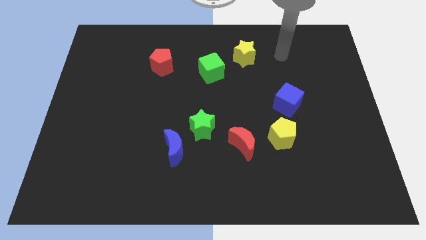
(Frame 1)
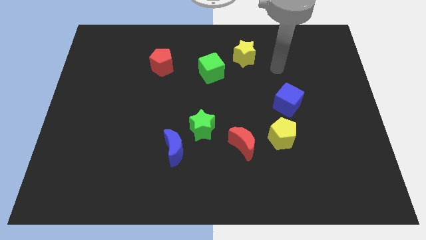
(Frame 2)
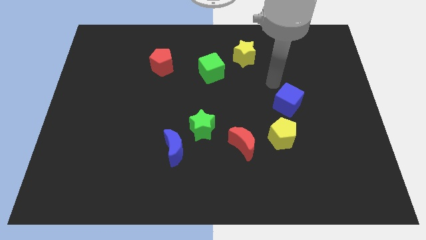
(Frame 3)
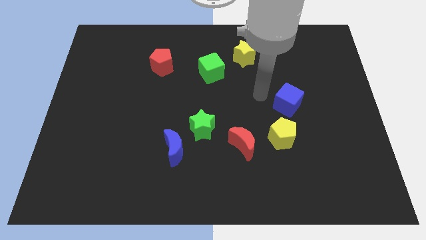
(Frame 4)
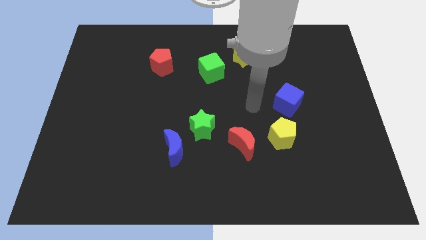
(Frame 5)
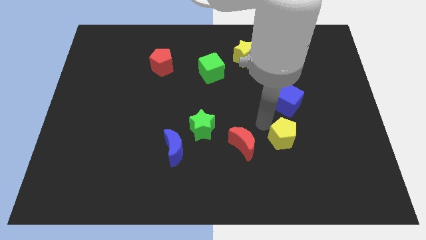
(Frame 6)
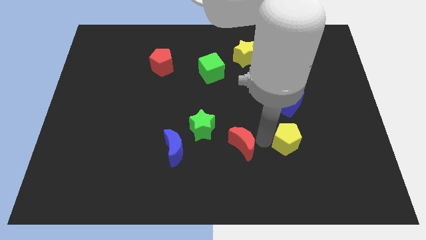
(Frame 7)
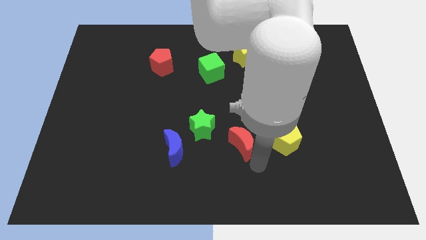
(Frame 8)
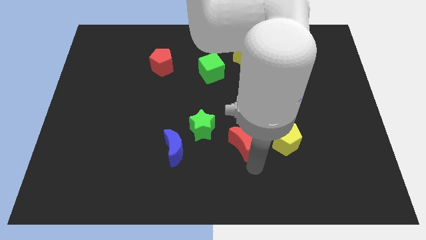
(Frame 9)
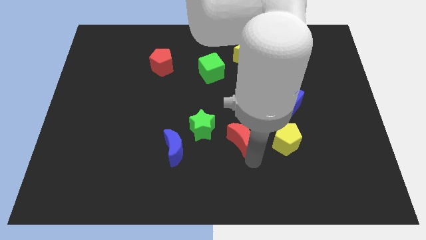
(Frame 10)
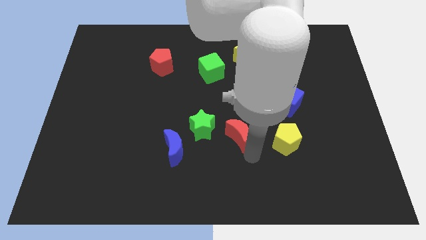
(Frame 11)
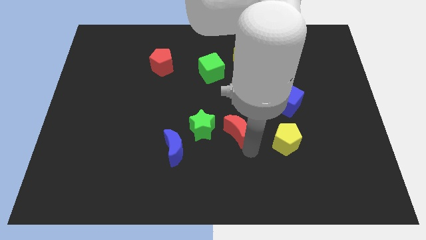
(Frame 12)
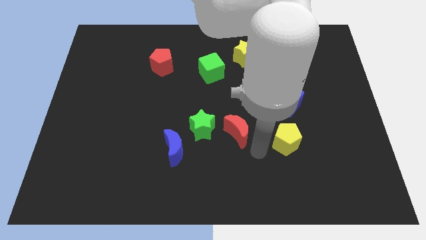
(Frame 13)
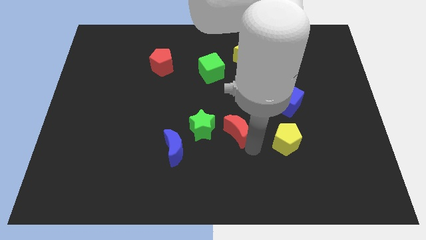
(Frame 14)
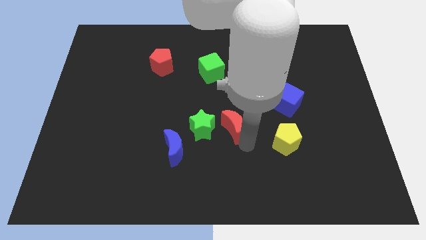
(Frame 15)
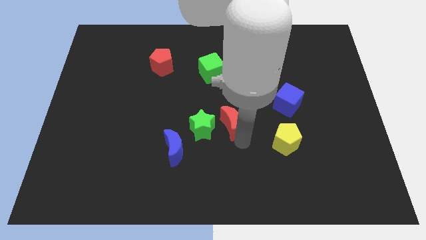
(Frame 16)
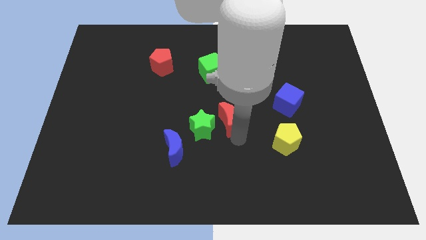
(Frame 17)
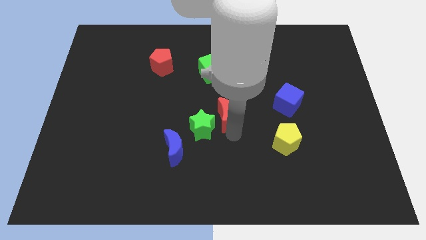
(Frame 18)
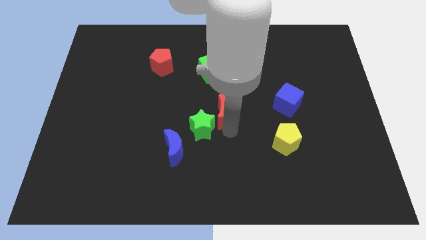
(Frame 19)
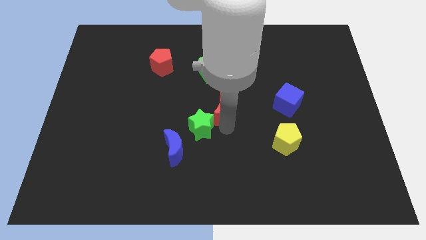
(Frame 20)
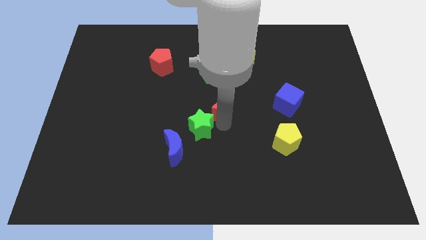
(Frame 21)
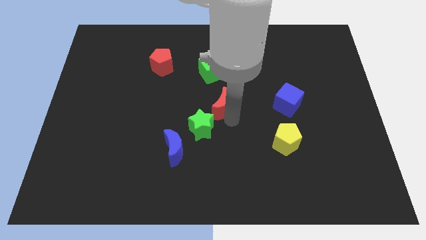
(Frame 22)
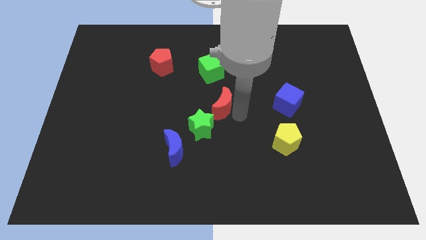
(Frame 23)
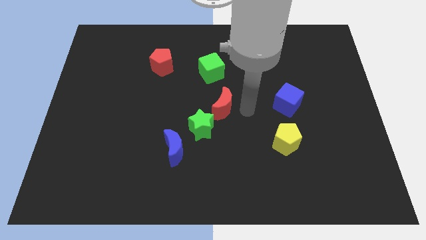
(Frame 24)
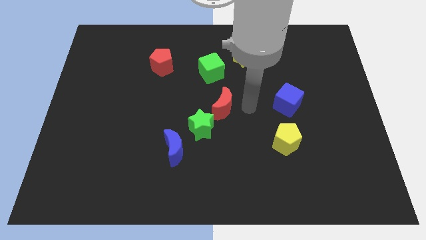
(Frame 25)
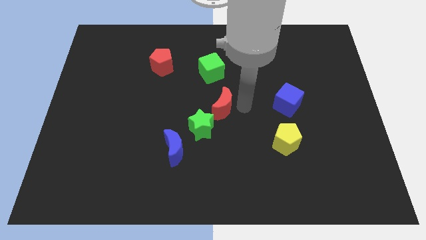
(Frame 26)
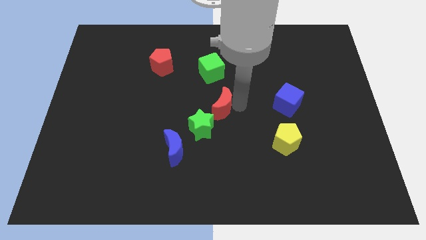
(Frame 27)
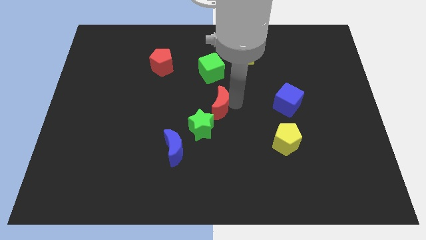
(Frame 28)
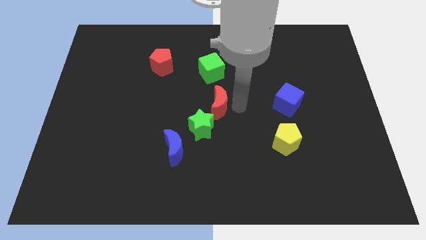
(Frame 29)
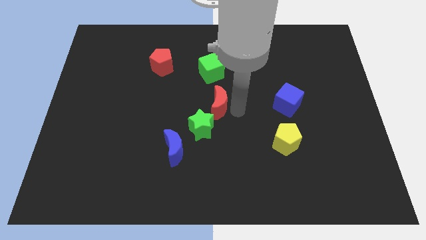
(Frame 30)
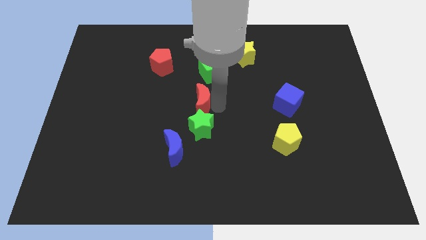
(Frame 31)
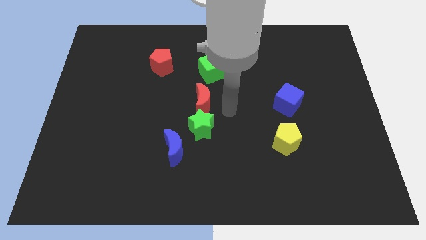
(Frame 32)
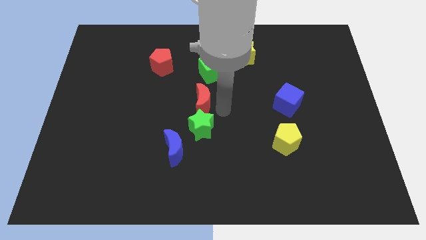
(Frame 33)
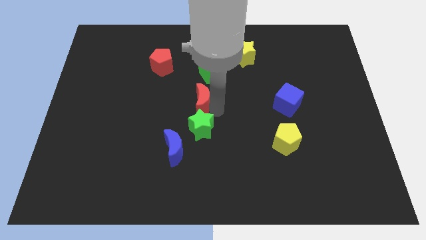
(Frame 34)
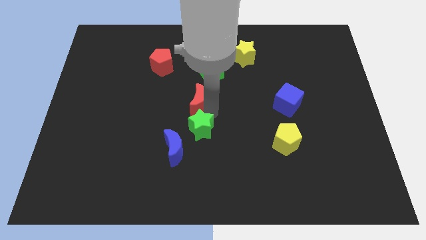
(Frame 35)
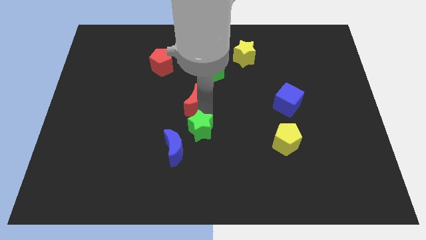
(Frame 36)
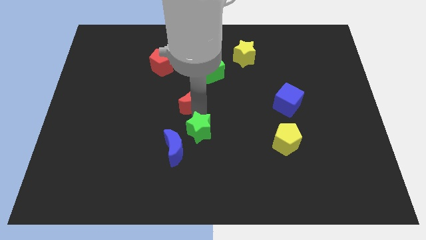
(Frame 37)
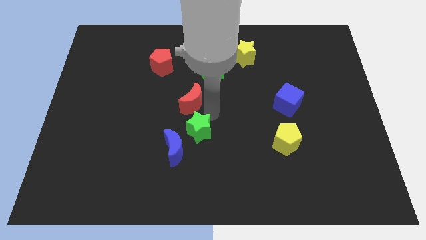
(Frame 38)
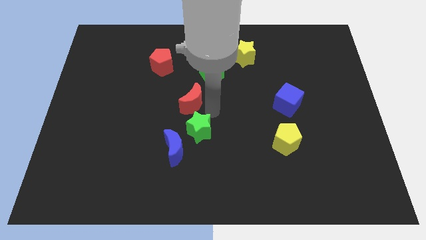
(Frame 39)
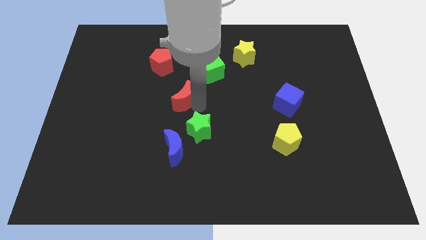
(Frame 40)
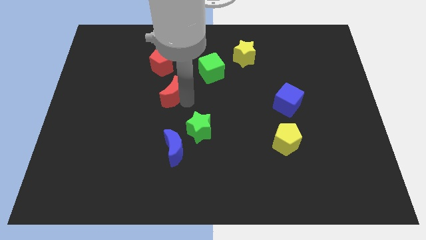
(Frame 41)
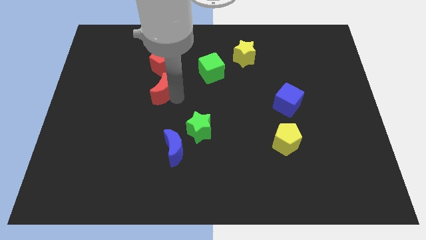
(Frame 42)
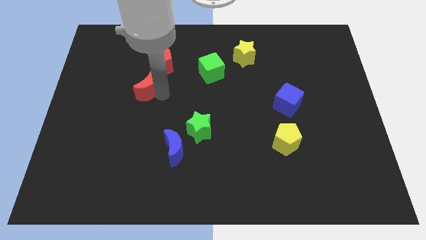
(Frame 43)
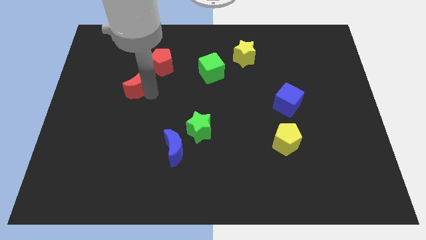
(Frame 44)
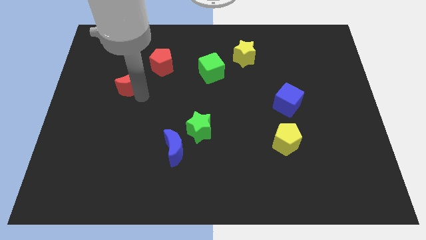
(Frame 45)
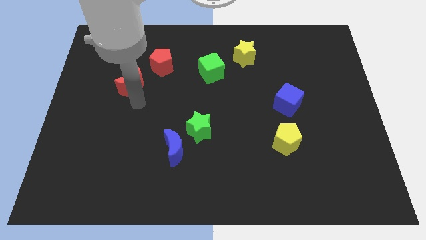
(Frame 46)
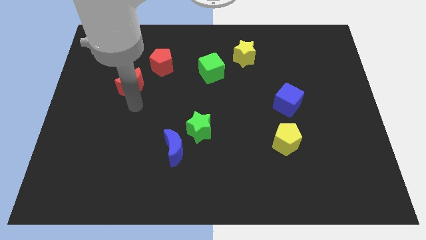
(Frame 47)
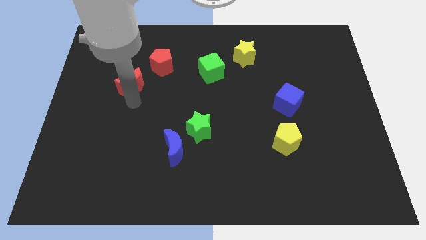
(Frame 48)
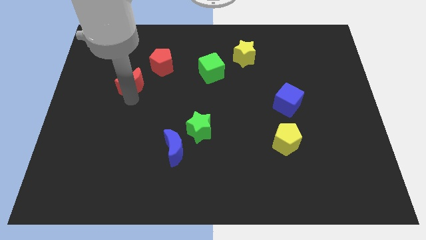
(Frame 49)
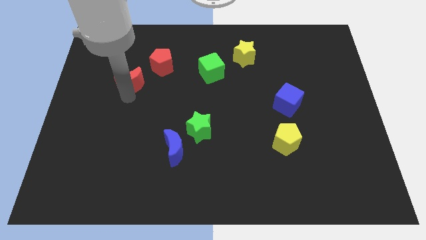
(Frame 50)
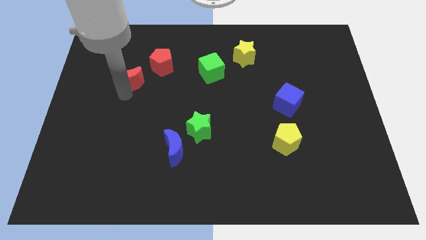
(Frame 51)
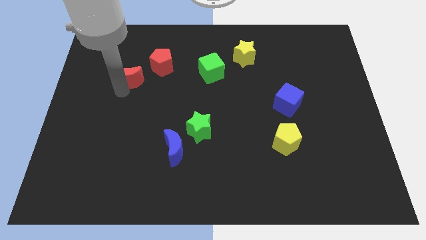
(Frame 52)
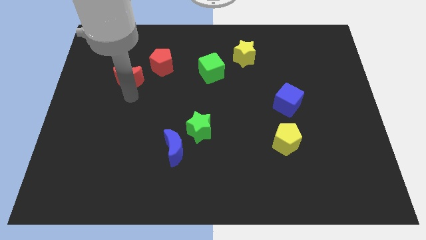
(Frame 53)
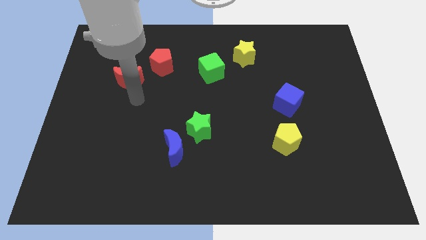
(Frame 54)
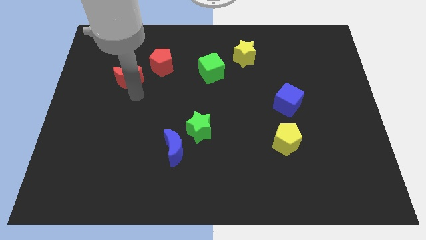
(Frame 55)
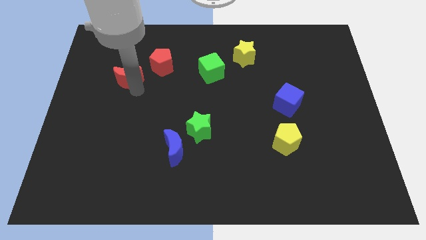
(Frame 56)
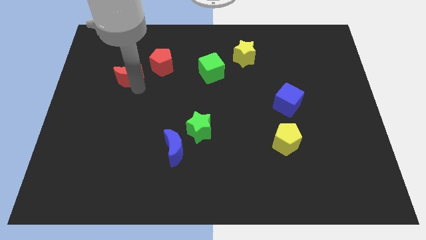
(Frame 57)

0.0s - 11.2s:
put the red moon left of the red pentagon

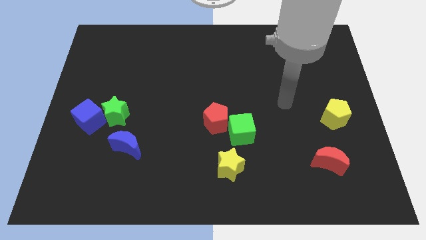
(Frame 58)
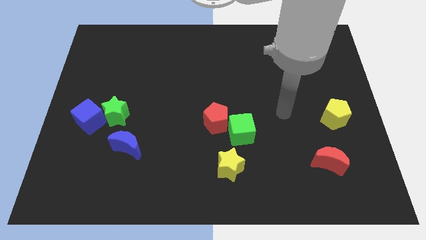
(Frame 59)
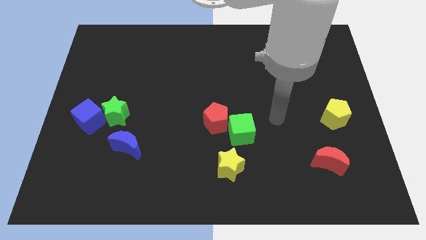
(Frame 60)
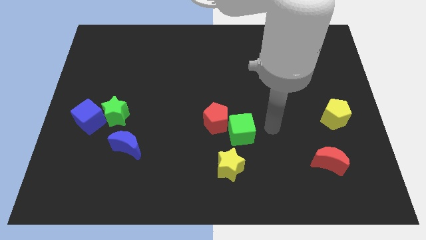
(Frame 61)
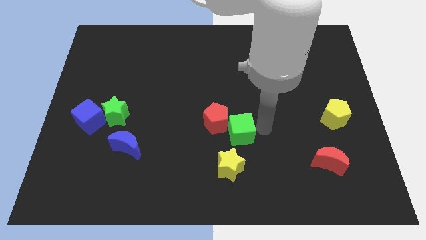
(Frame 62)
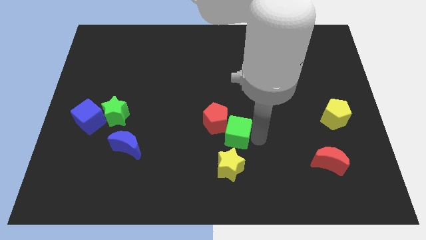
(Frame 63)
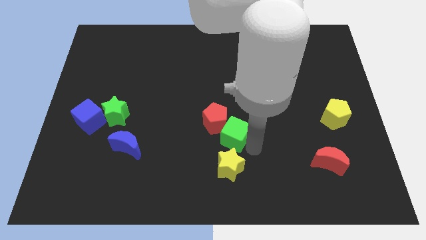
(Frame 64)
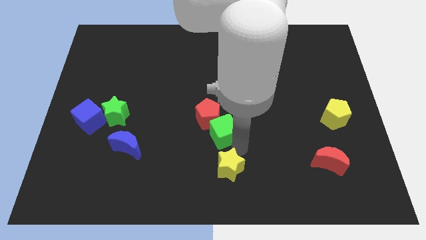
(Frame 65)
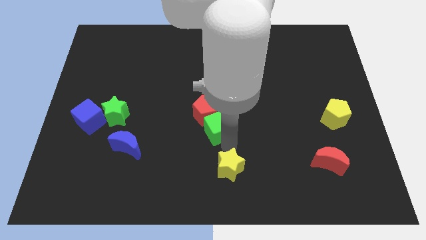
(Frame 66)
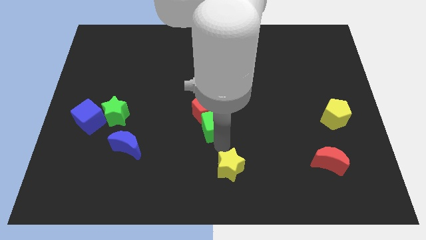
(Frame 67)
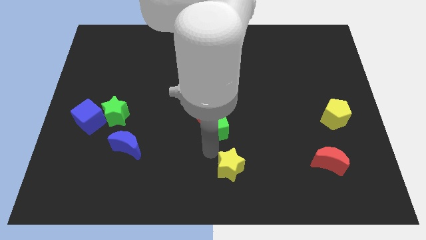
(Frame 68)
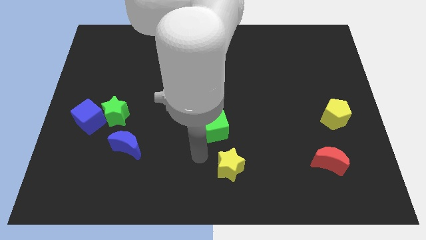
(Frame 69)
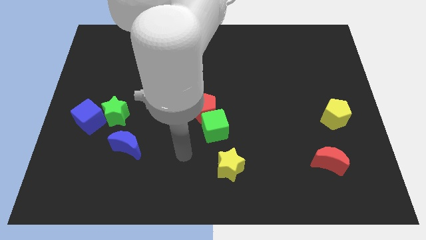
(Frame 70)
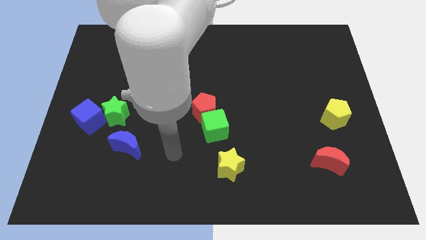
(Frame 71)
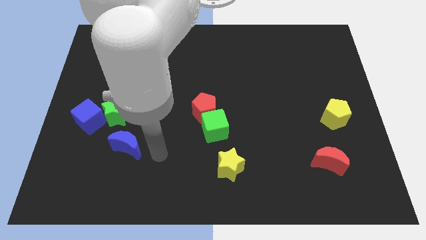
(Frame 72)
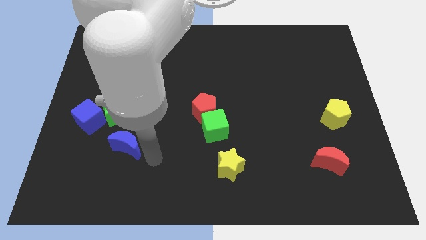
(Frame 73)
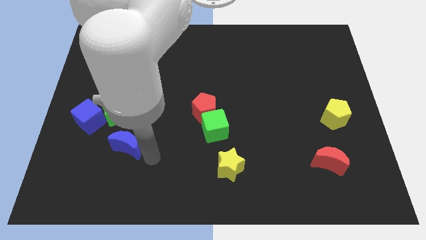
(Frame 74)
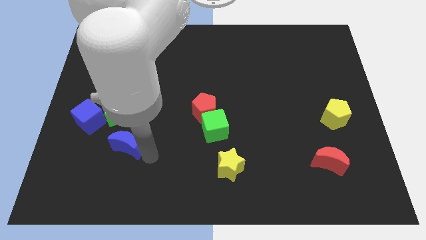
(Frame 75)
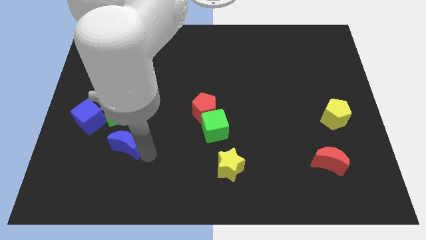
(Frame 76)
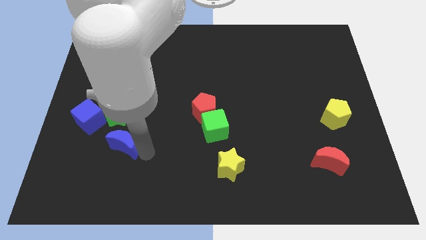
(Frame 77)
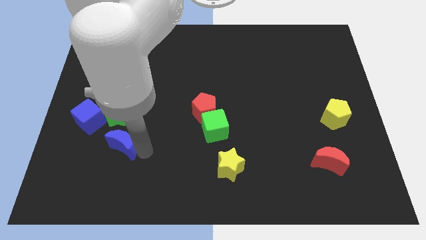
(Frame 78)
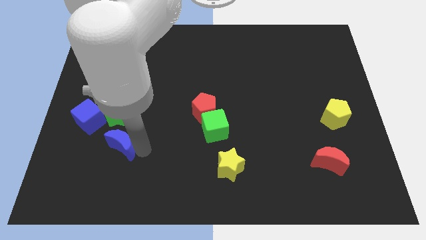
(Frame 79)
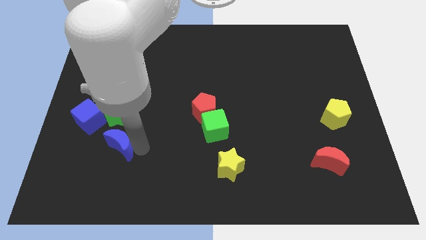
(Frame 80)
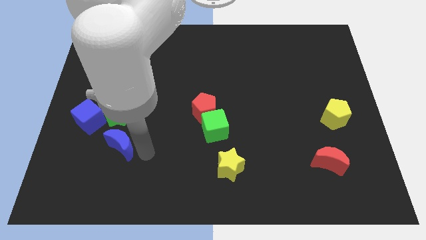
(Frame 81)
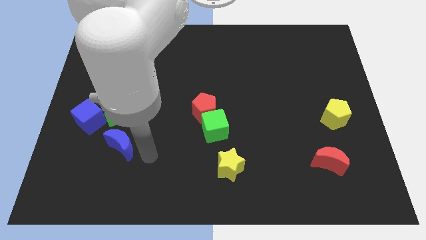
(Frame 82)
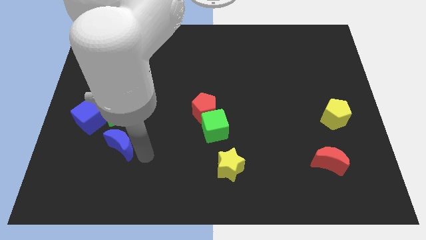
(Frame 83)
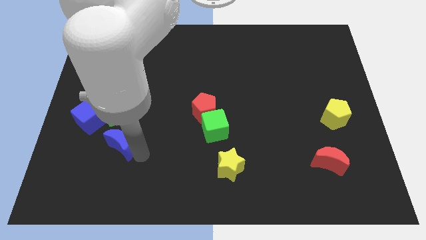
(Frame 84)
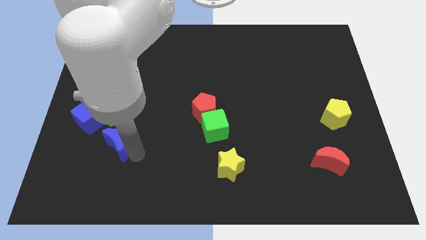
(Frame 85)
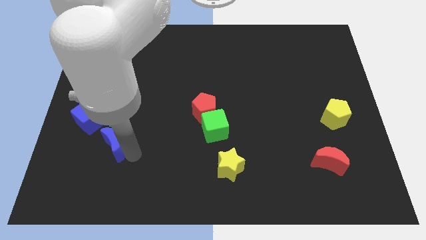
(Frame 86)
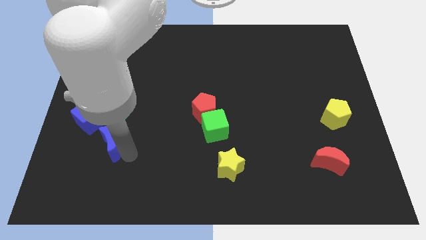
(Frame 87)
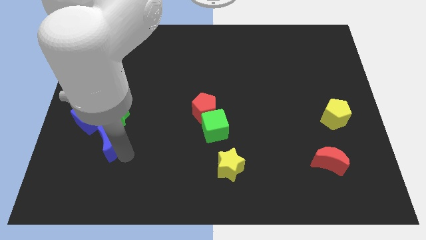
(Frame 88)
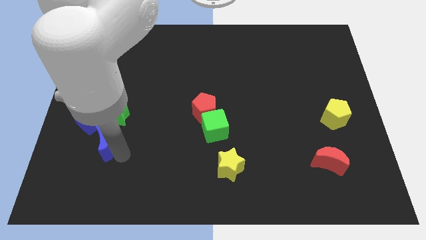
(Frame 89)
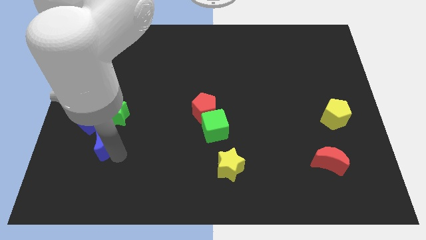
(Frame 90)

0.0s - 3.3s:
push the blue moon to the bottom left of the green star
